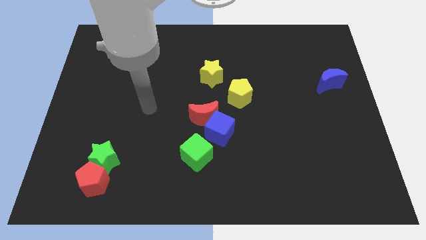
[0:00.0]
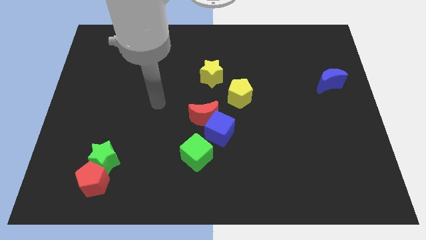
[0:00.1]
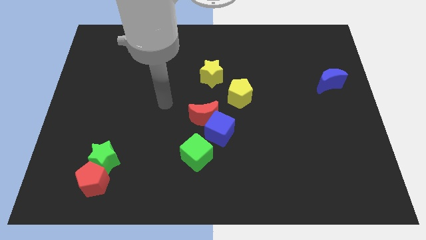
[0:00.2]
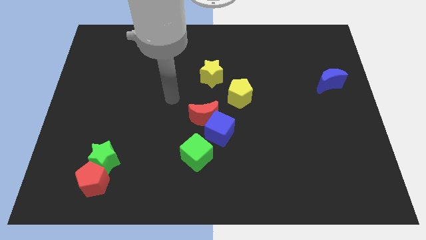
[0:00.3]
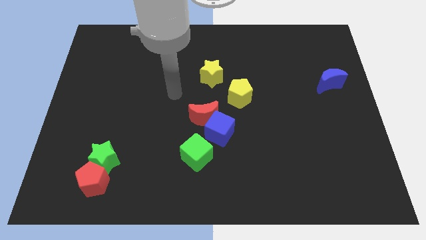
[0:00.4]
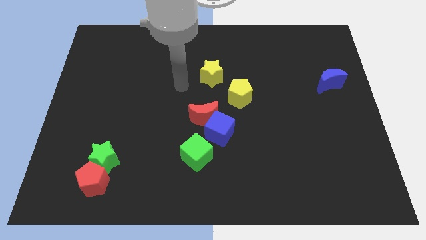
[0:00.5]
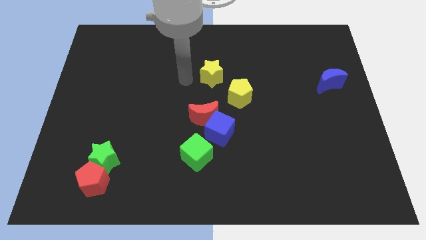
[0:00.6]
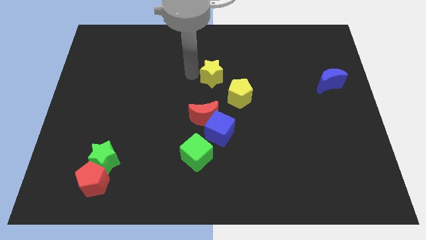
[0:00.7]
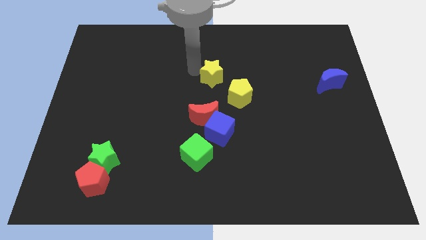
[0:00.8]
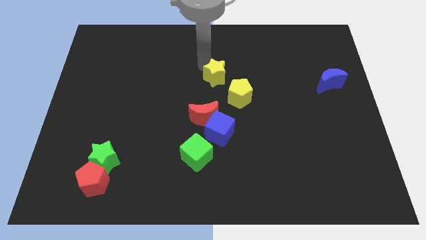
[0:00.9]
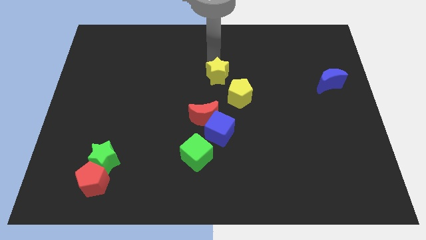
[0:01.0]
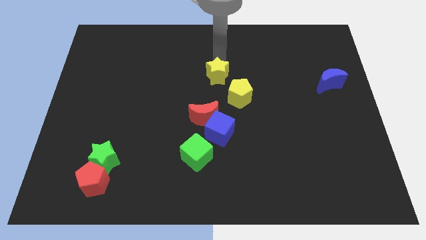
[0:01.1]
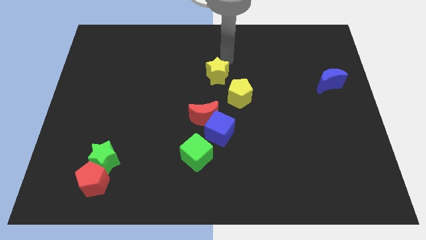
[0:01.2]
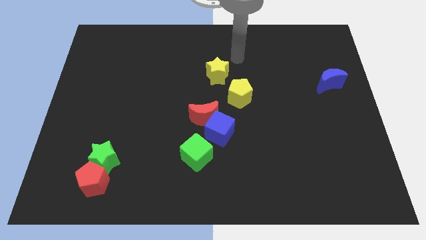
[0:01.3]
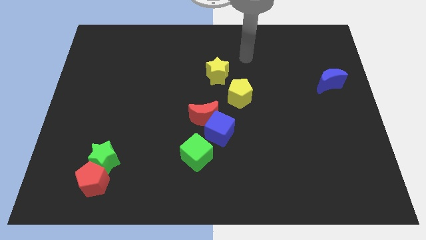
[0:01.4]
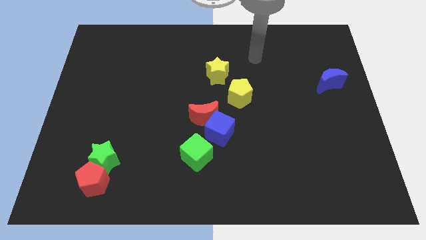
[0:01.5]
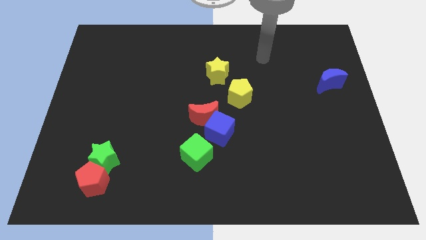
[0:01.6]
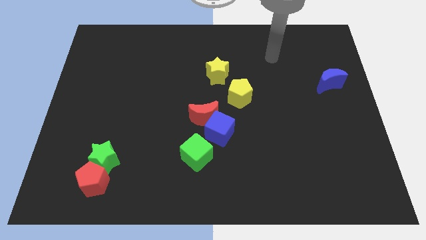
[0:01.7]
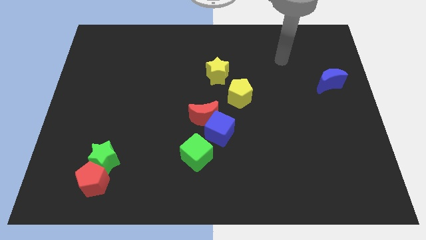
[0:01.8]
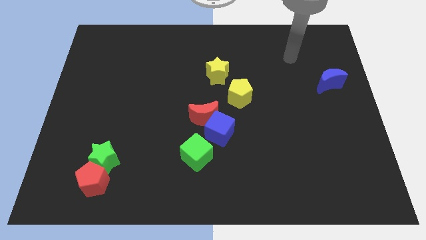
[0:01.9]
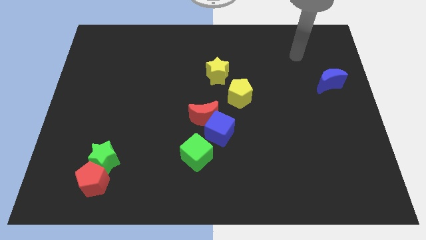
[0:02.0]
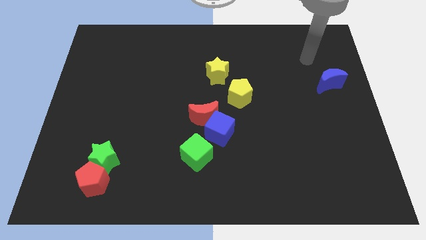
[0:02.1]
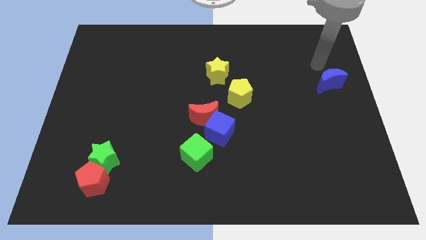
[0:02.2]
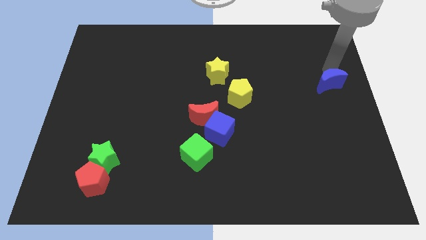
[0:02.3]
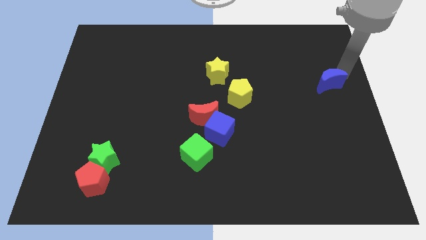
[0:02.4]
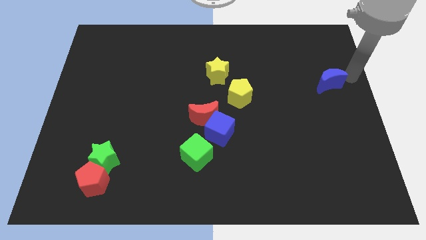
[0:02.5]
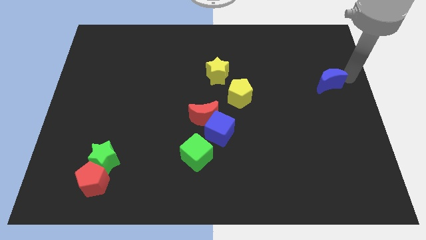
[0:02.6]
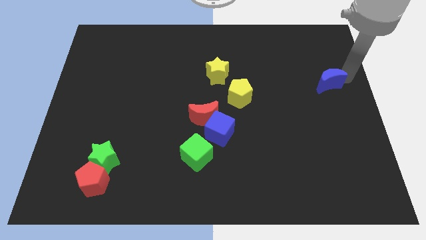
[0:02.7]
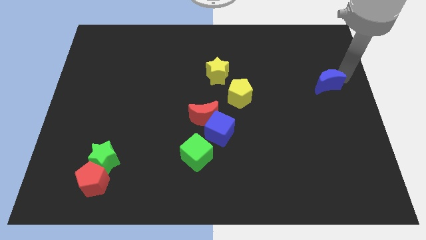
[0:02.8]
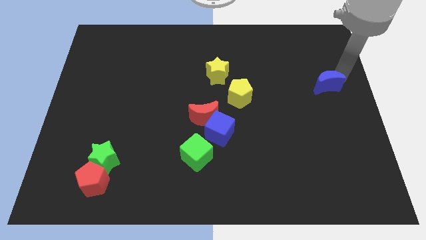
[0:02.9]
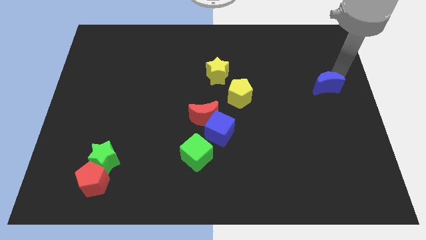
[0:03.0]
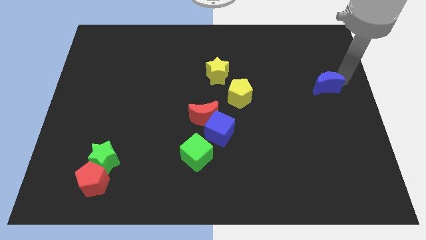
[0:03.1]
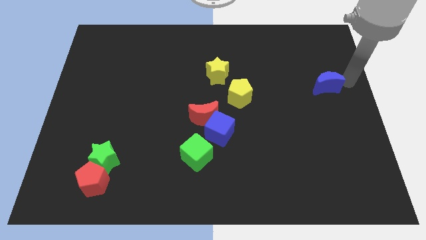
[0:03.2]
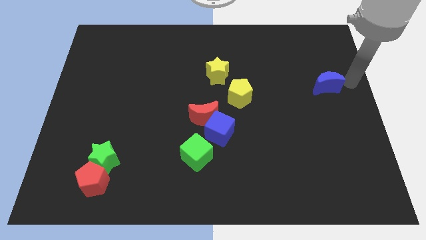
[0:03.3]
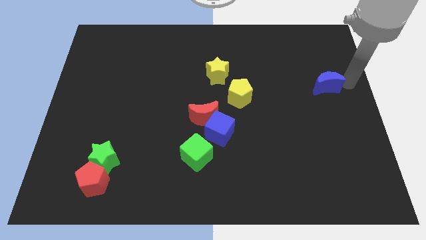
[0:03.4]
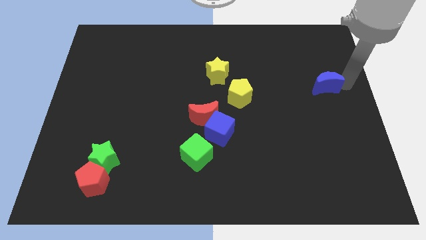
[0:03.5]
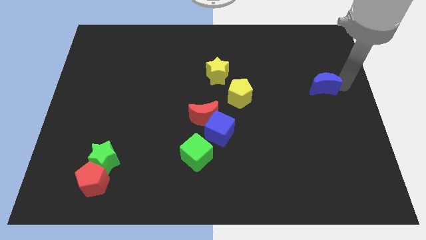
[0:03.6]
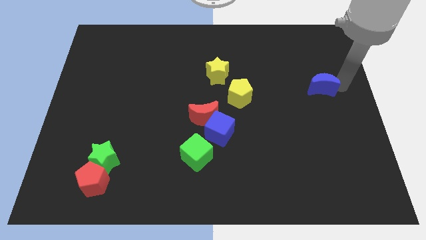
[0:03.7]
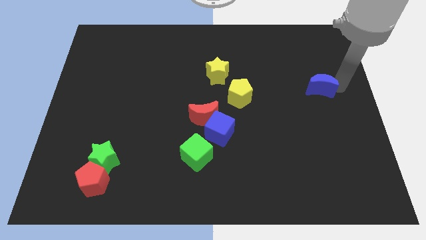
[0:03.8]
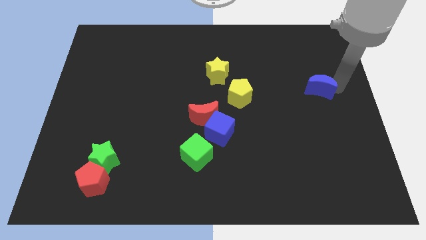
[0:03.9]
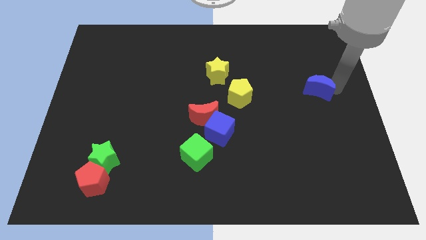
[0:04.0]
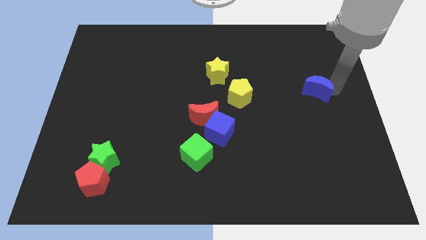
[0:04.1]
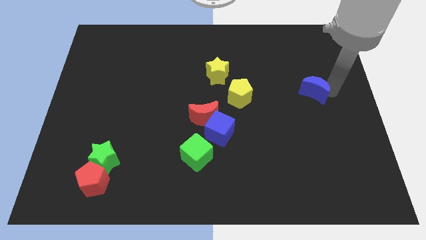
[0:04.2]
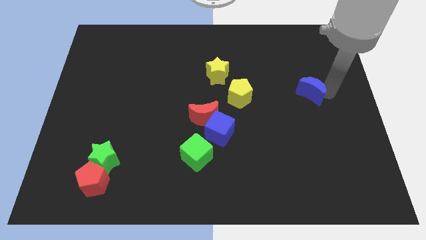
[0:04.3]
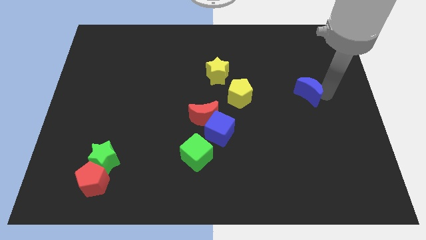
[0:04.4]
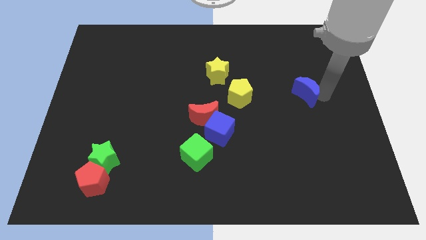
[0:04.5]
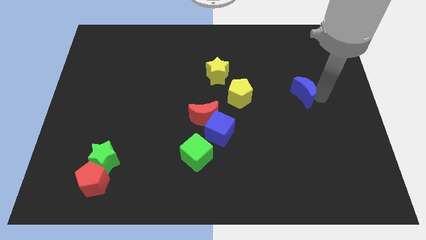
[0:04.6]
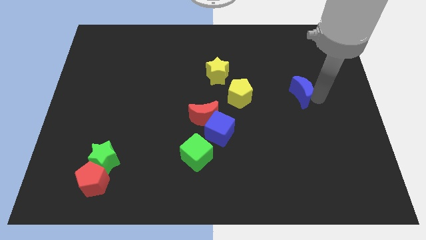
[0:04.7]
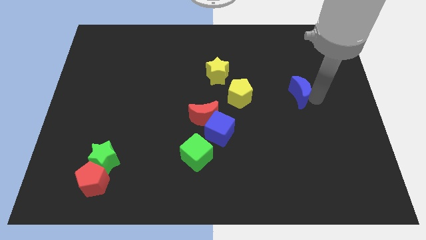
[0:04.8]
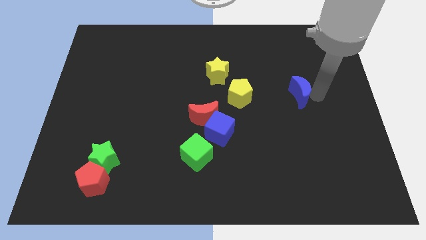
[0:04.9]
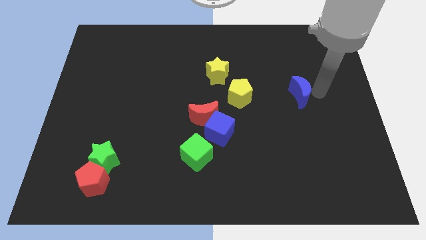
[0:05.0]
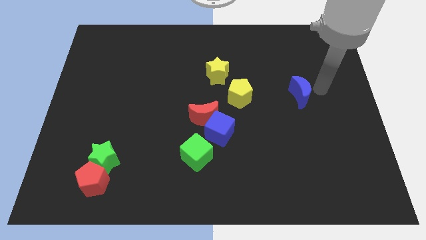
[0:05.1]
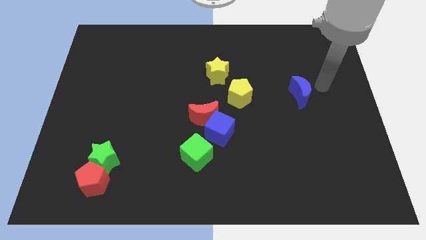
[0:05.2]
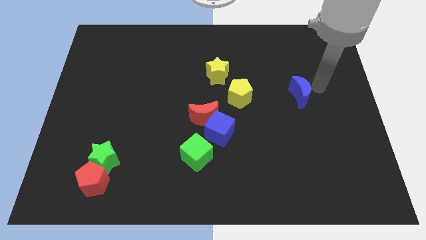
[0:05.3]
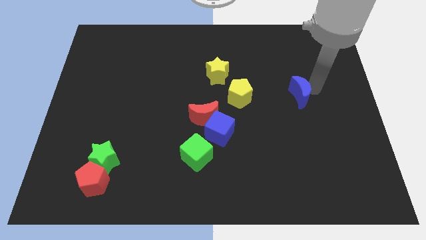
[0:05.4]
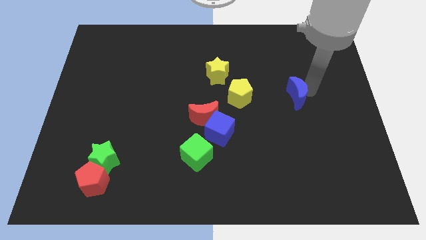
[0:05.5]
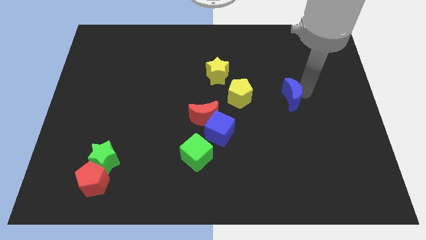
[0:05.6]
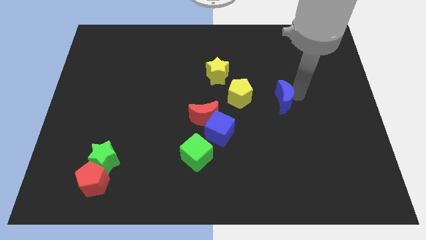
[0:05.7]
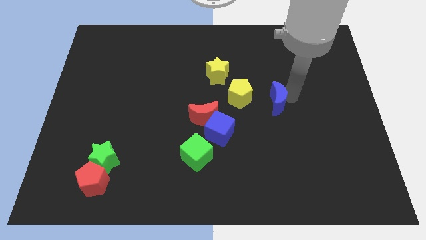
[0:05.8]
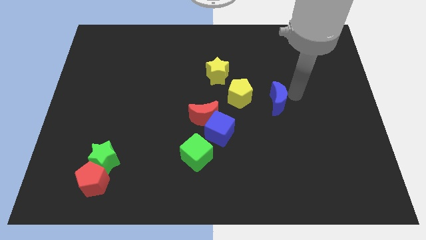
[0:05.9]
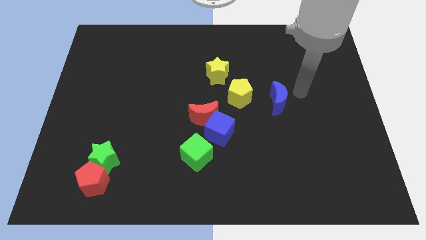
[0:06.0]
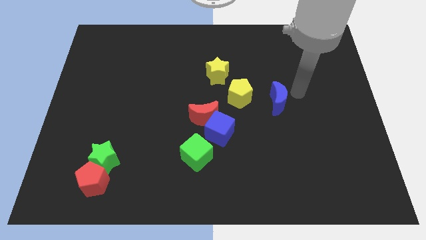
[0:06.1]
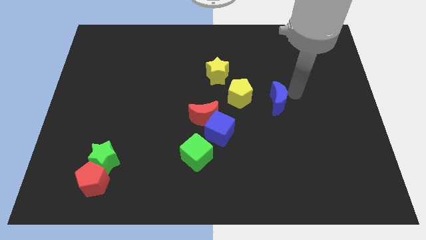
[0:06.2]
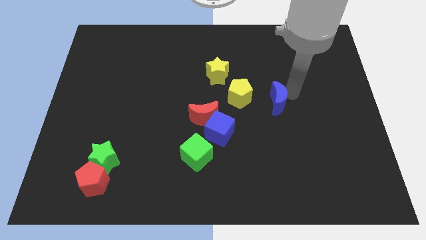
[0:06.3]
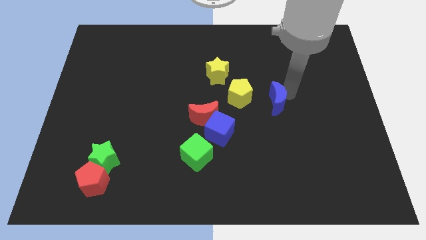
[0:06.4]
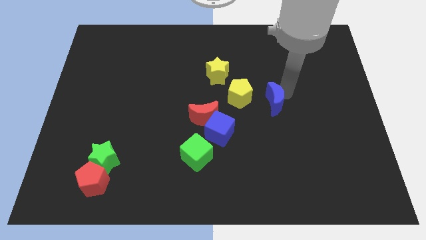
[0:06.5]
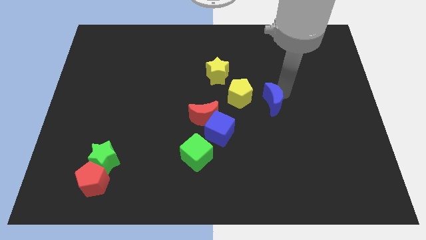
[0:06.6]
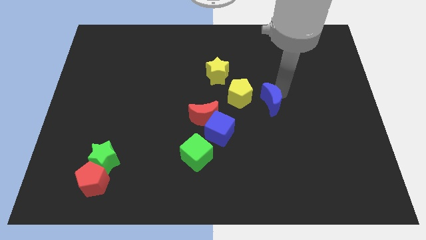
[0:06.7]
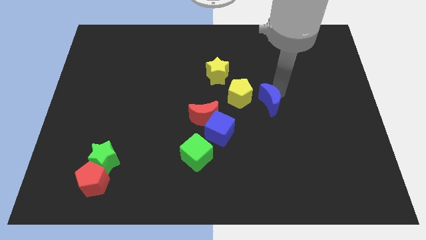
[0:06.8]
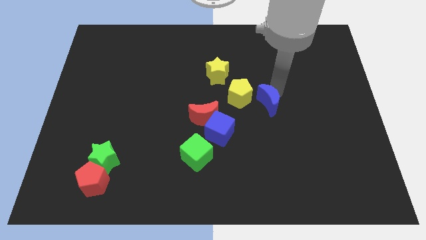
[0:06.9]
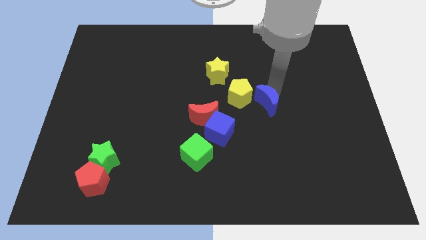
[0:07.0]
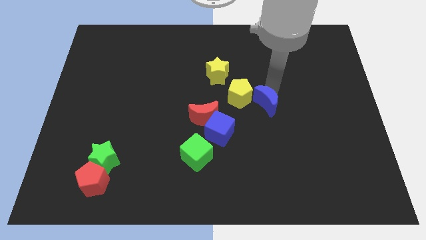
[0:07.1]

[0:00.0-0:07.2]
put the blue moon to the center of the board

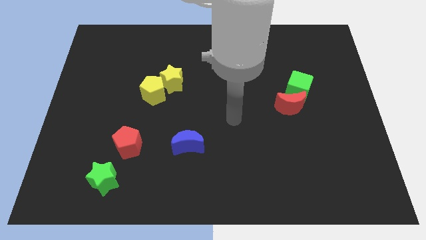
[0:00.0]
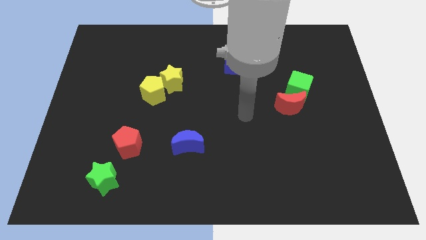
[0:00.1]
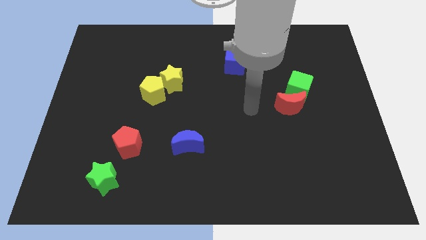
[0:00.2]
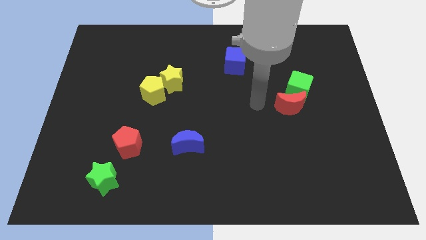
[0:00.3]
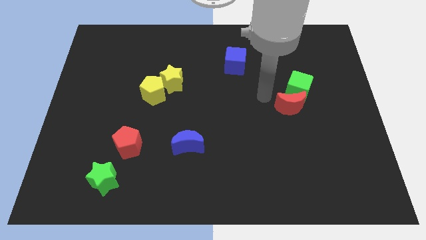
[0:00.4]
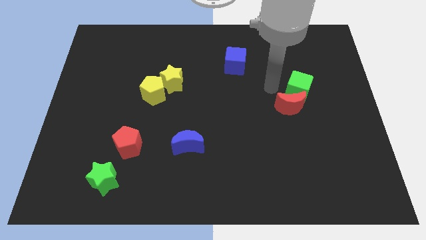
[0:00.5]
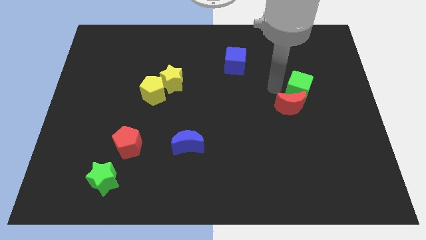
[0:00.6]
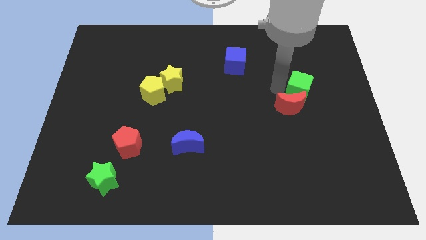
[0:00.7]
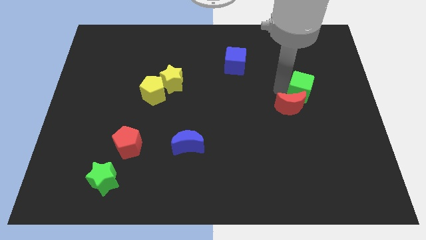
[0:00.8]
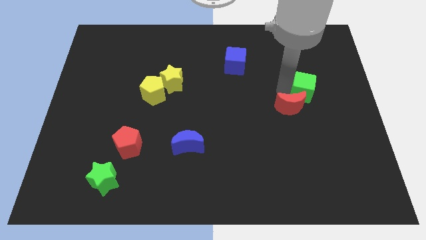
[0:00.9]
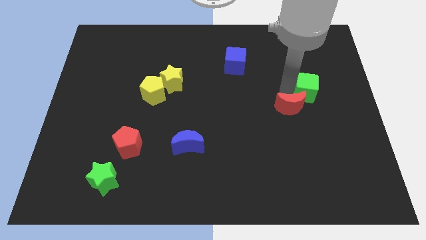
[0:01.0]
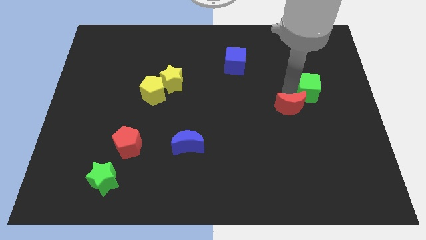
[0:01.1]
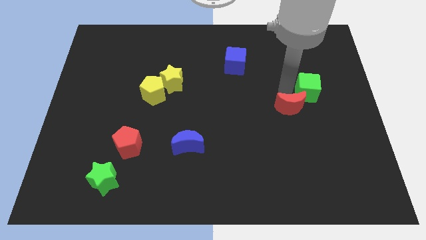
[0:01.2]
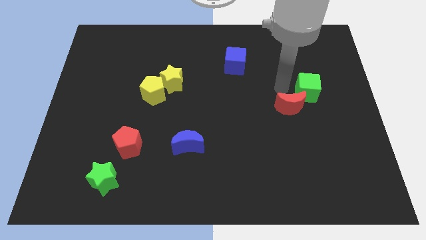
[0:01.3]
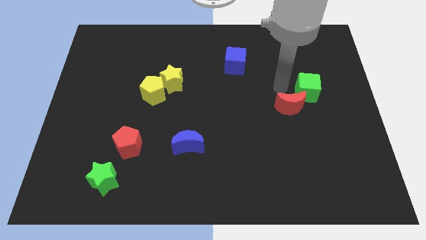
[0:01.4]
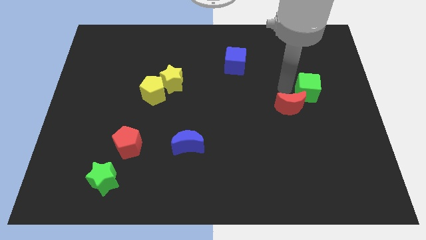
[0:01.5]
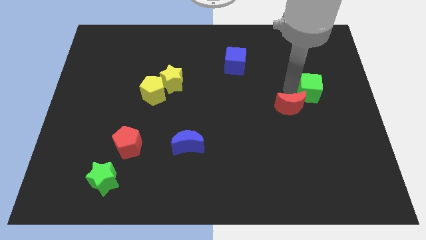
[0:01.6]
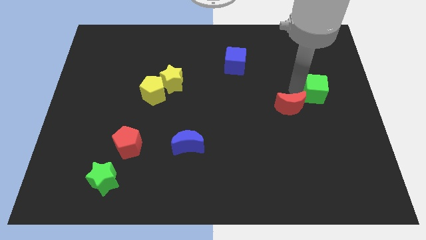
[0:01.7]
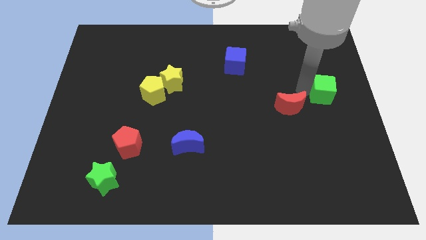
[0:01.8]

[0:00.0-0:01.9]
push the green cube to the center right
